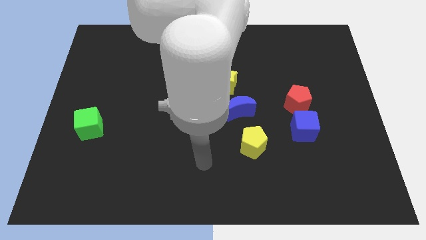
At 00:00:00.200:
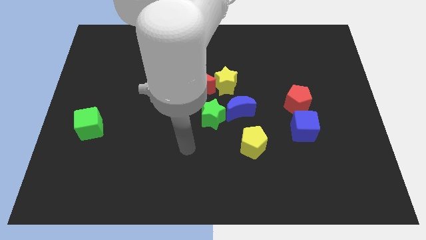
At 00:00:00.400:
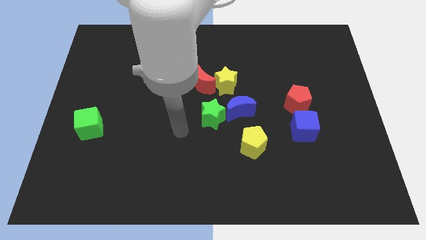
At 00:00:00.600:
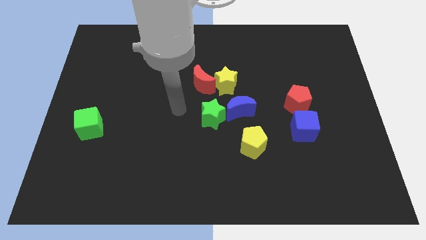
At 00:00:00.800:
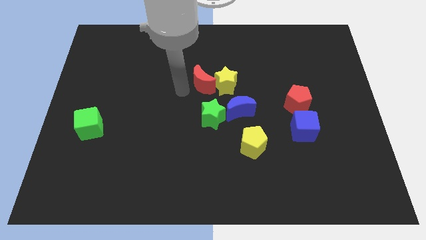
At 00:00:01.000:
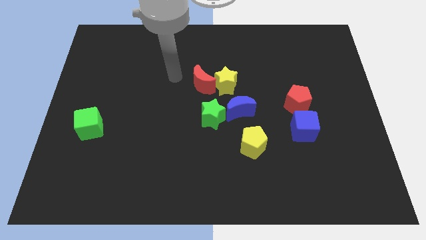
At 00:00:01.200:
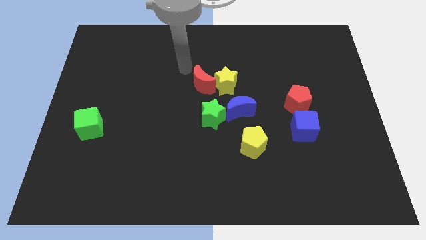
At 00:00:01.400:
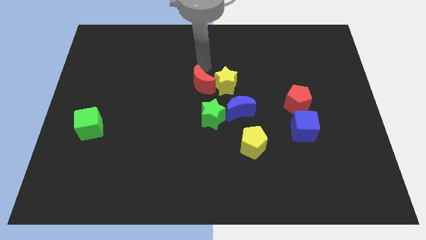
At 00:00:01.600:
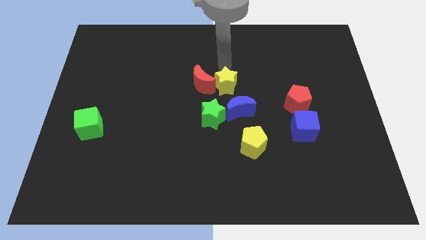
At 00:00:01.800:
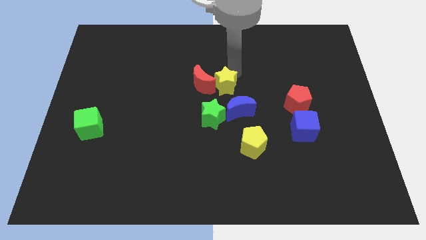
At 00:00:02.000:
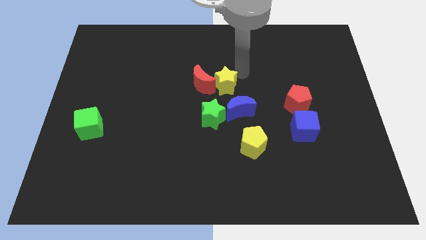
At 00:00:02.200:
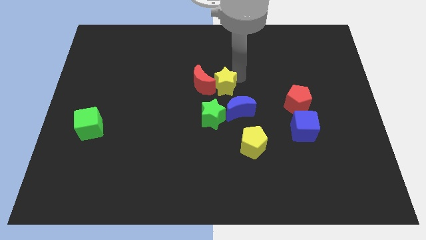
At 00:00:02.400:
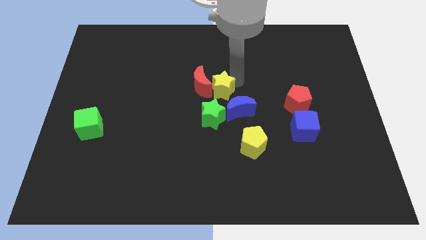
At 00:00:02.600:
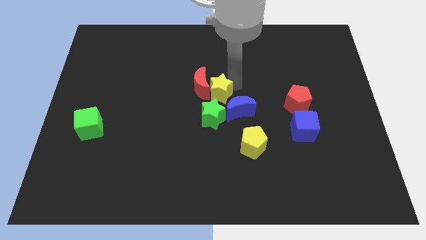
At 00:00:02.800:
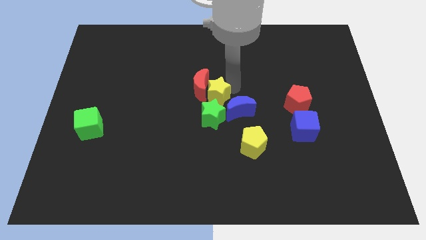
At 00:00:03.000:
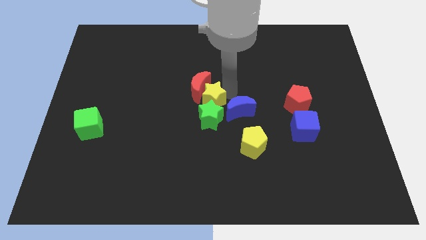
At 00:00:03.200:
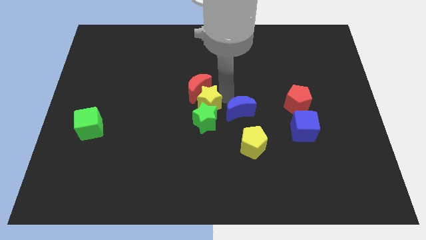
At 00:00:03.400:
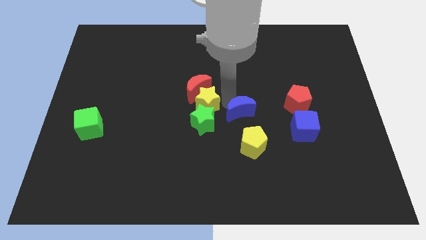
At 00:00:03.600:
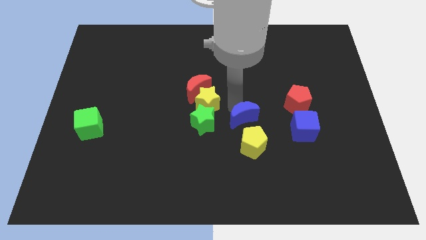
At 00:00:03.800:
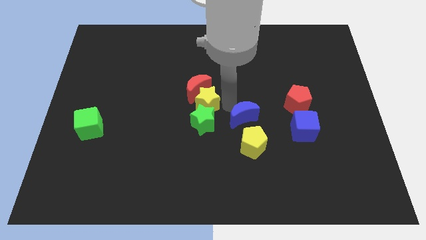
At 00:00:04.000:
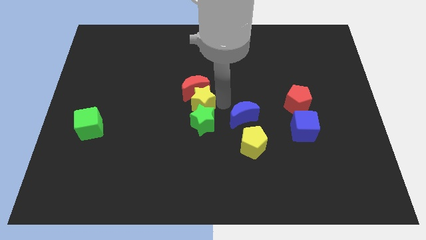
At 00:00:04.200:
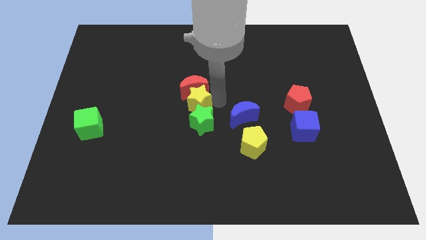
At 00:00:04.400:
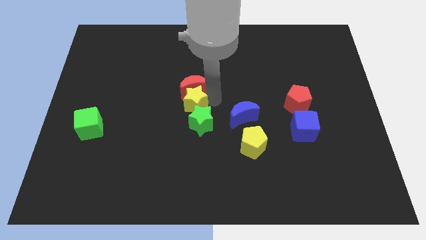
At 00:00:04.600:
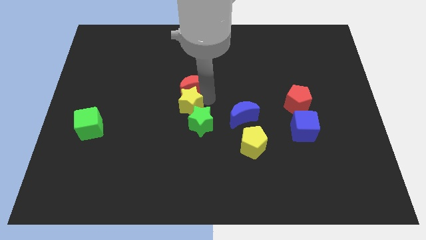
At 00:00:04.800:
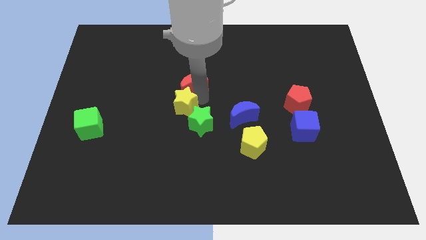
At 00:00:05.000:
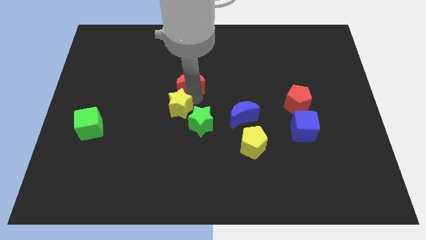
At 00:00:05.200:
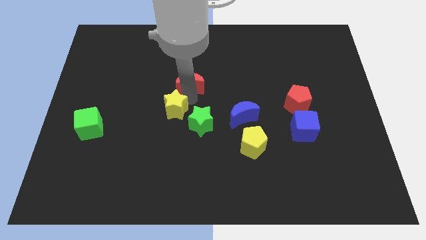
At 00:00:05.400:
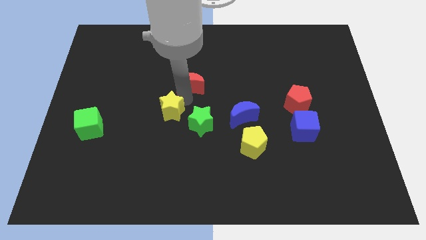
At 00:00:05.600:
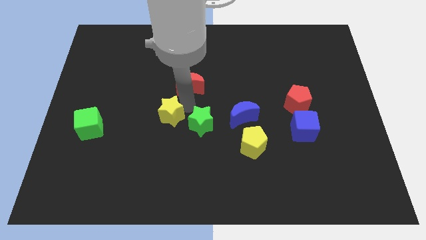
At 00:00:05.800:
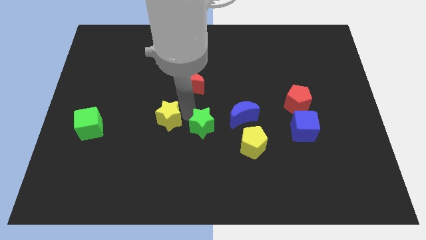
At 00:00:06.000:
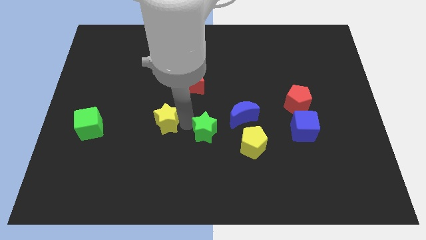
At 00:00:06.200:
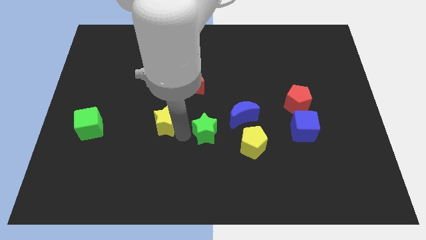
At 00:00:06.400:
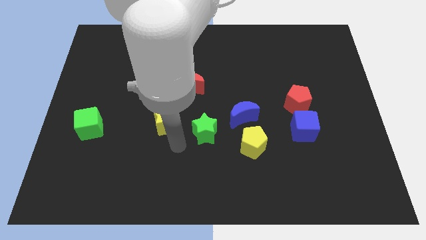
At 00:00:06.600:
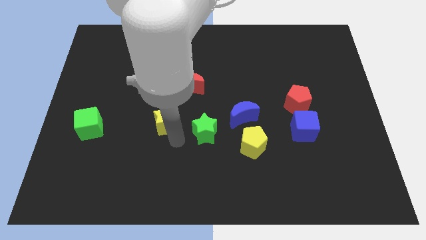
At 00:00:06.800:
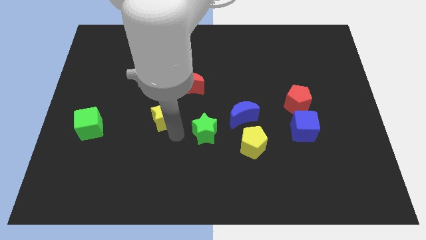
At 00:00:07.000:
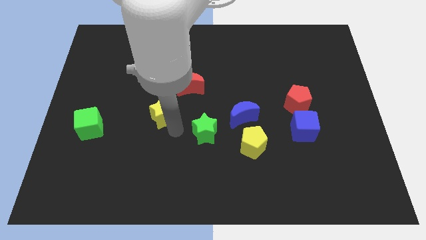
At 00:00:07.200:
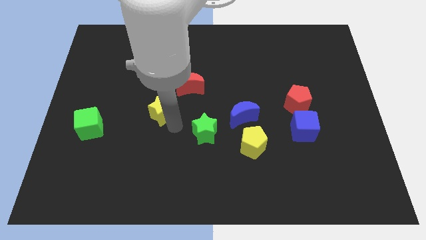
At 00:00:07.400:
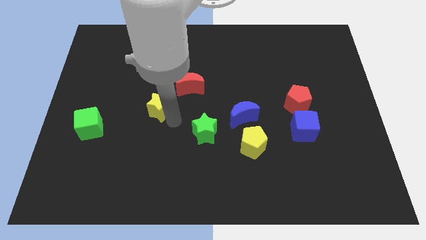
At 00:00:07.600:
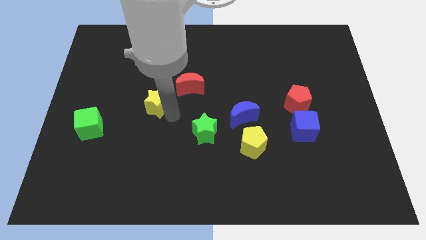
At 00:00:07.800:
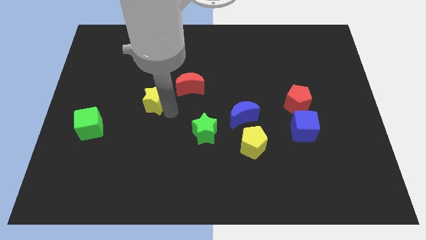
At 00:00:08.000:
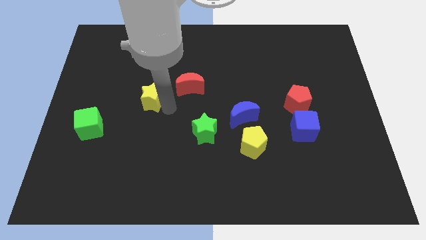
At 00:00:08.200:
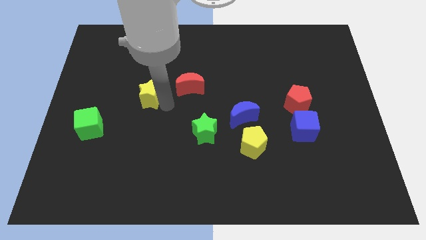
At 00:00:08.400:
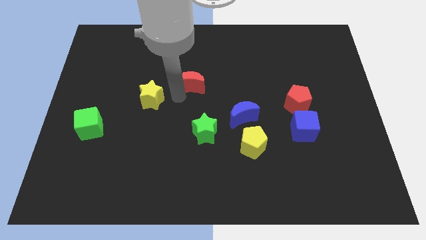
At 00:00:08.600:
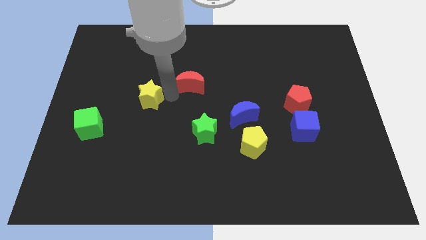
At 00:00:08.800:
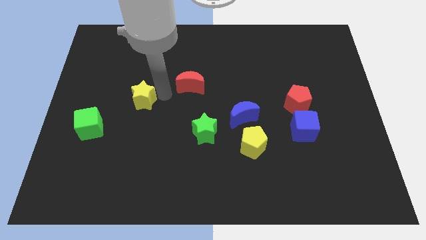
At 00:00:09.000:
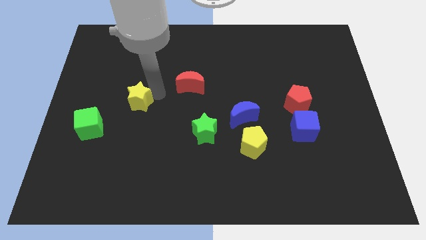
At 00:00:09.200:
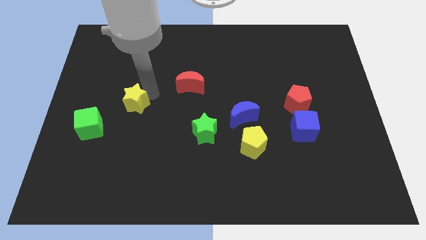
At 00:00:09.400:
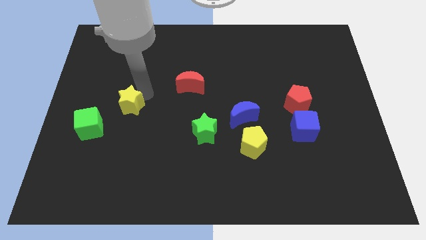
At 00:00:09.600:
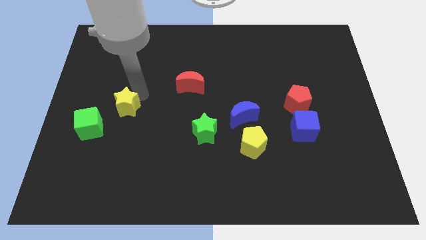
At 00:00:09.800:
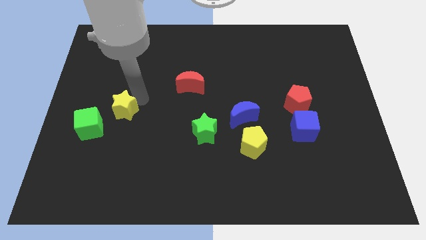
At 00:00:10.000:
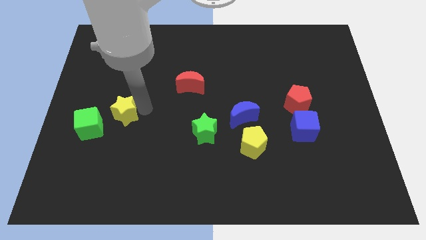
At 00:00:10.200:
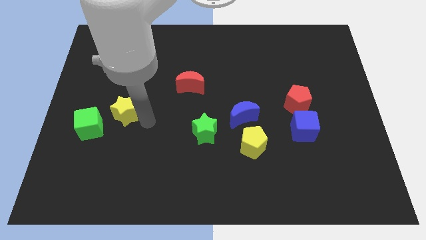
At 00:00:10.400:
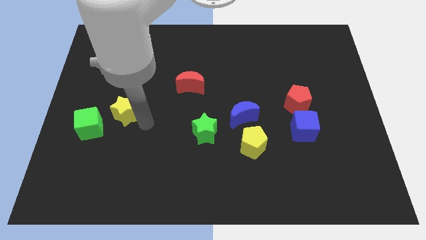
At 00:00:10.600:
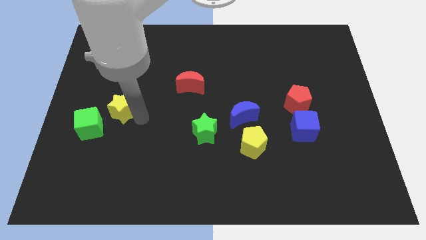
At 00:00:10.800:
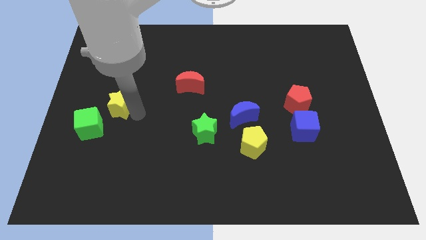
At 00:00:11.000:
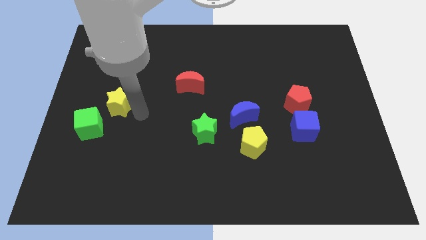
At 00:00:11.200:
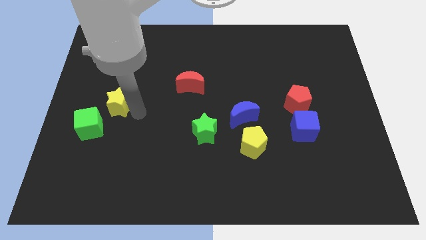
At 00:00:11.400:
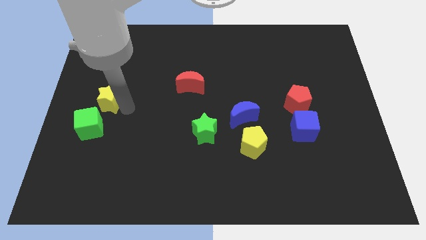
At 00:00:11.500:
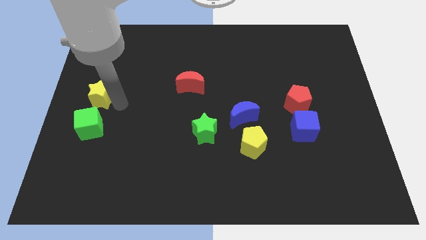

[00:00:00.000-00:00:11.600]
push the yellow star to the left side of the board
